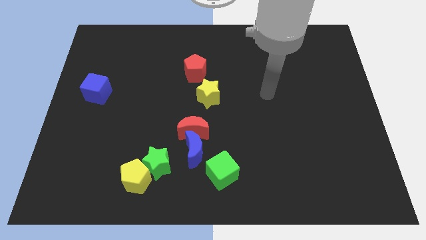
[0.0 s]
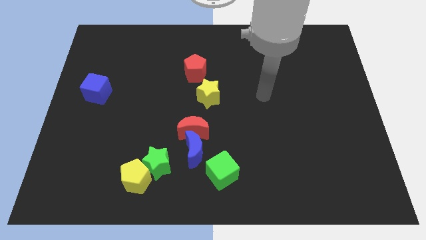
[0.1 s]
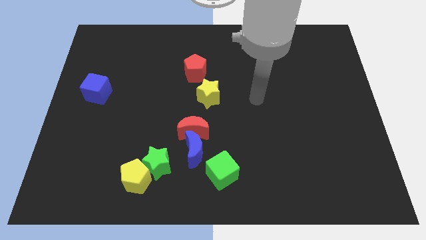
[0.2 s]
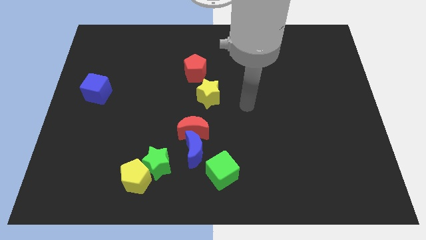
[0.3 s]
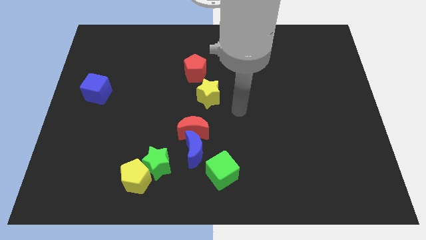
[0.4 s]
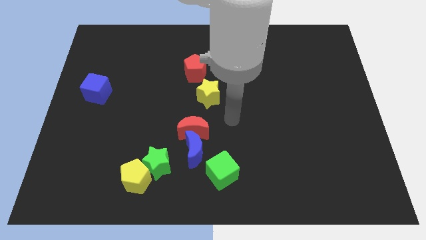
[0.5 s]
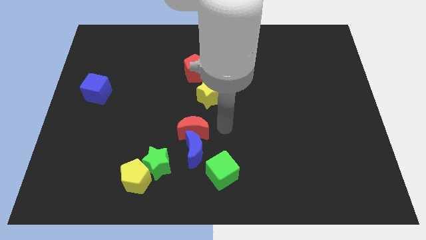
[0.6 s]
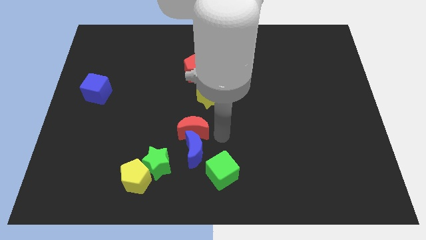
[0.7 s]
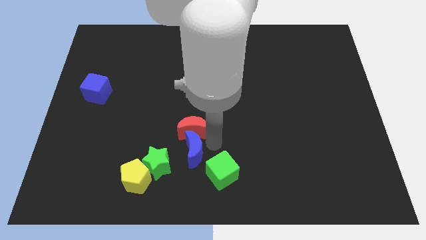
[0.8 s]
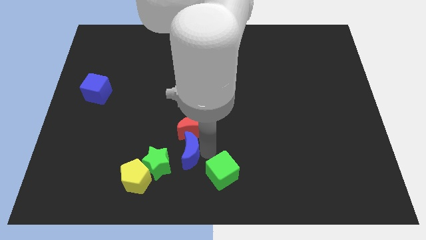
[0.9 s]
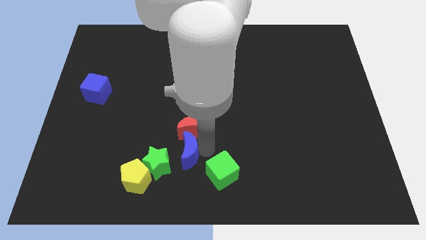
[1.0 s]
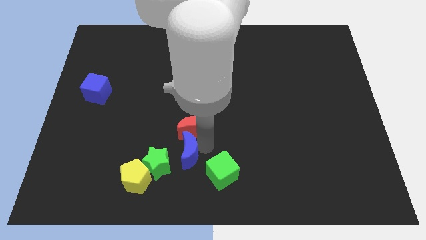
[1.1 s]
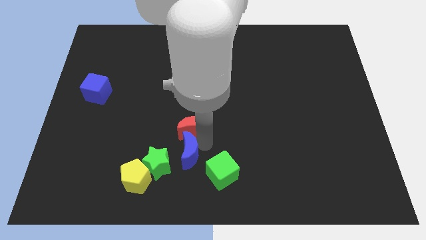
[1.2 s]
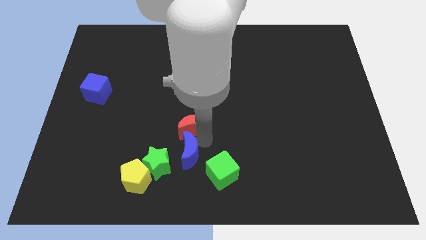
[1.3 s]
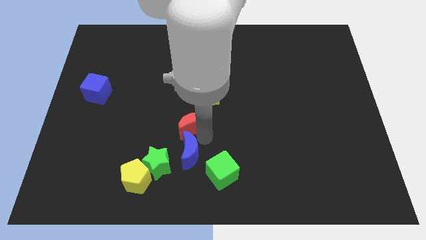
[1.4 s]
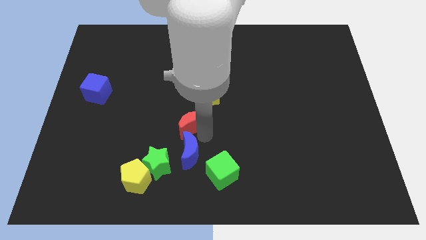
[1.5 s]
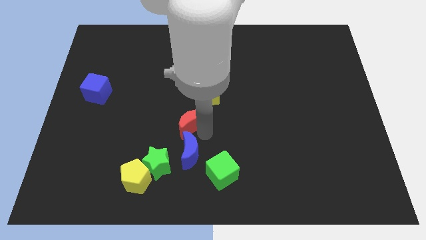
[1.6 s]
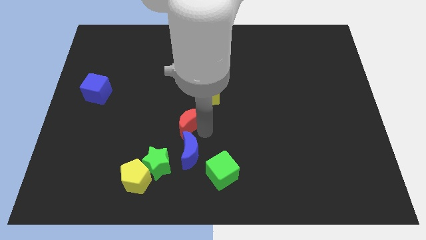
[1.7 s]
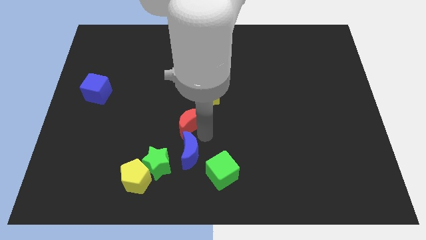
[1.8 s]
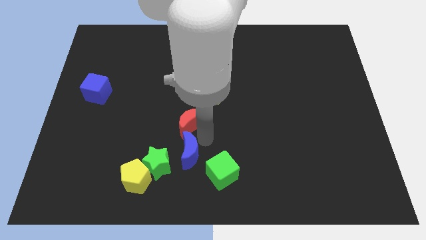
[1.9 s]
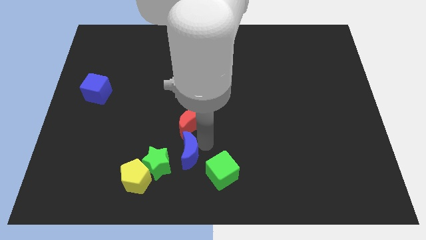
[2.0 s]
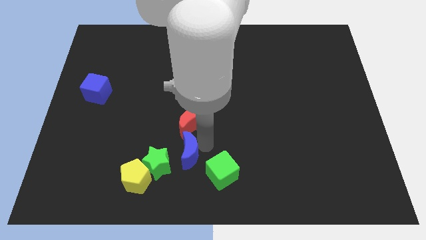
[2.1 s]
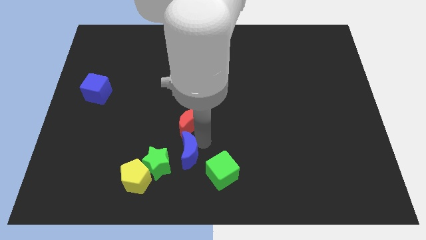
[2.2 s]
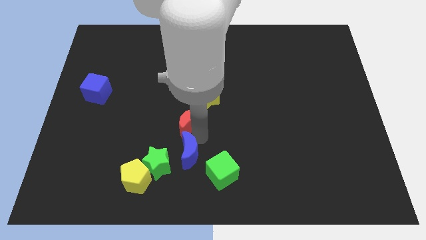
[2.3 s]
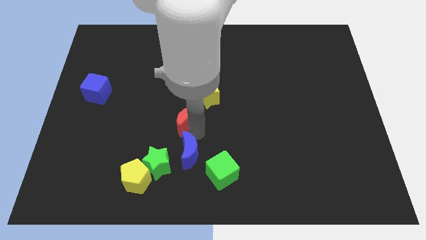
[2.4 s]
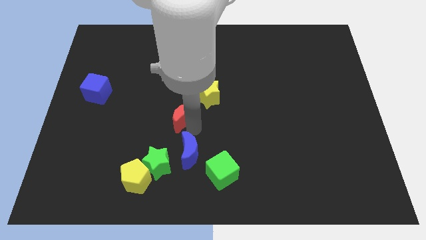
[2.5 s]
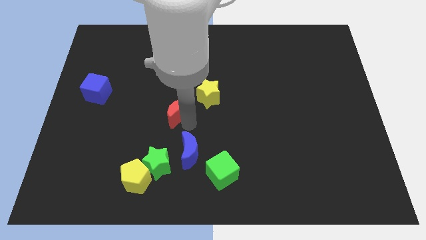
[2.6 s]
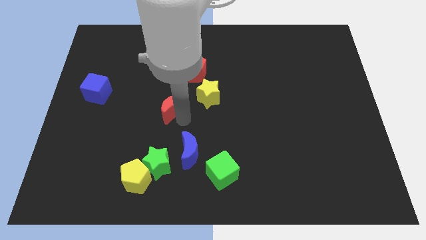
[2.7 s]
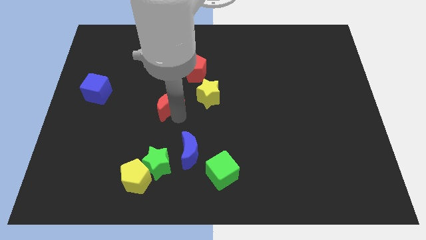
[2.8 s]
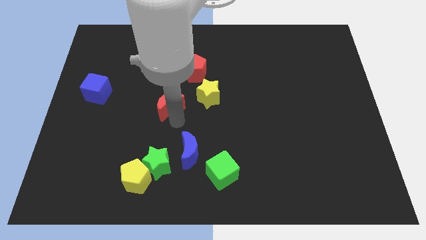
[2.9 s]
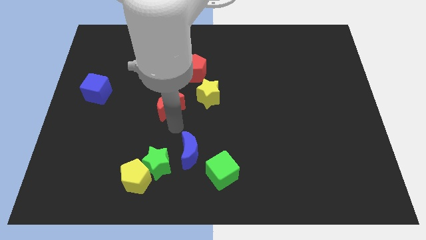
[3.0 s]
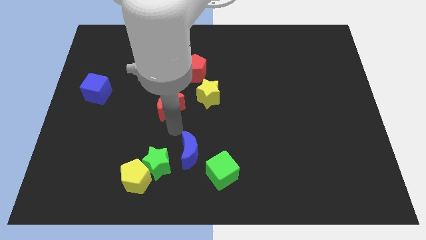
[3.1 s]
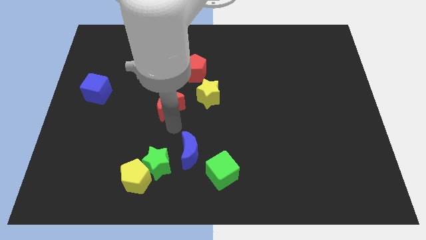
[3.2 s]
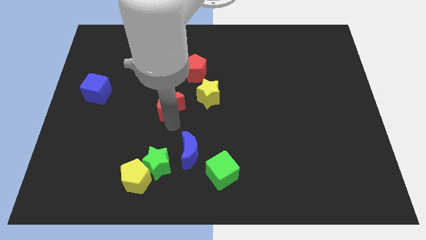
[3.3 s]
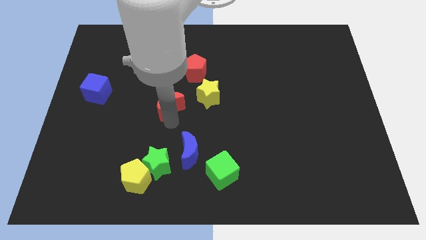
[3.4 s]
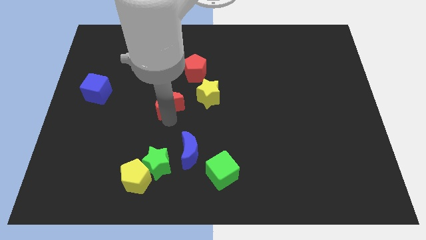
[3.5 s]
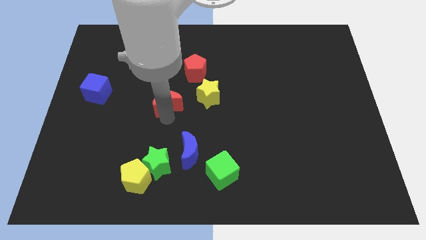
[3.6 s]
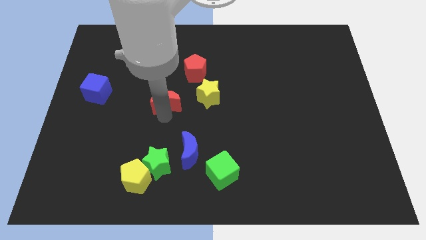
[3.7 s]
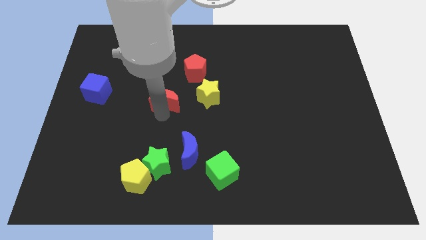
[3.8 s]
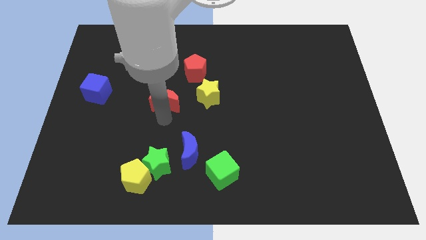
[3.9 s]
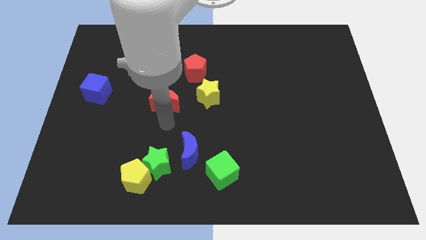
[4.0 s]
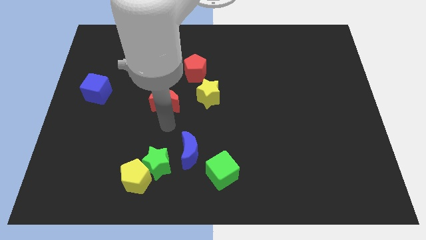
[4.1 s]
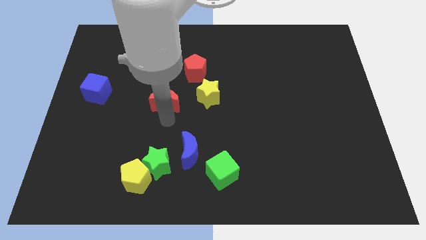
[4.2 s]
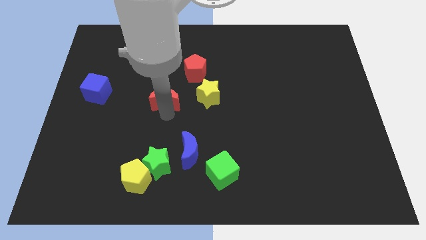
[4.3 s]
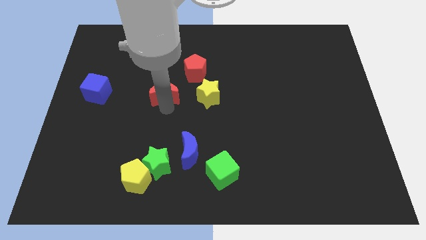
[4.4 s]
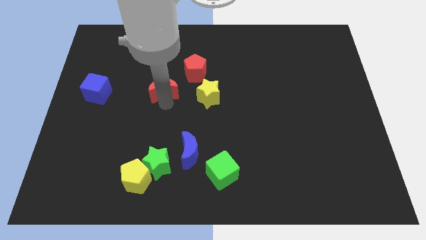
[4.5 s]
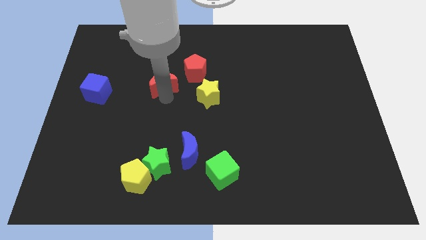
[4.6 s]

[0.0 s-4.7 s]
slide the red moon to the left of the red pentagon

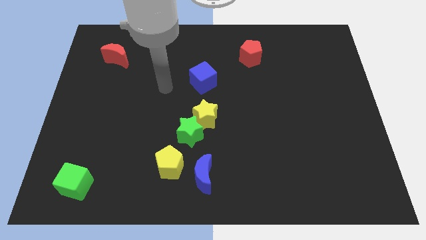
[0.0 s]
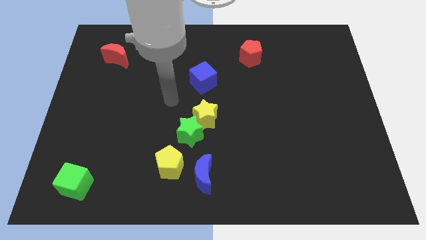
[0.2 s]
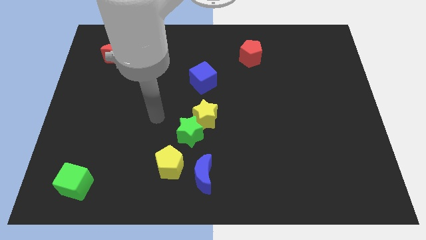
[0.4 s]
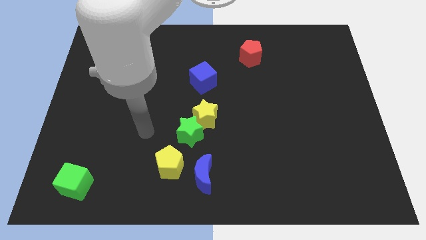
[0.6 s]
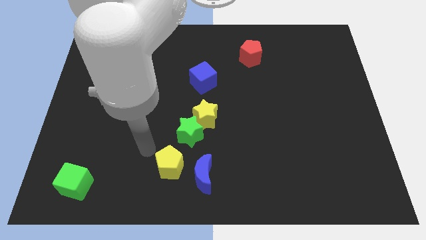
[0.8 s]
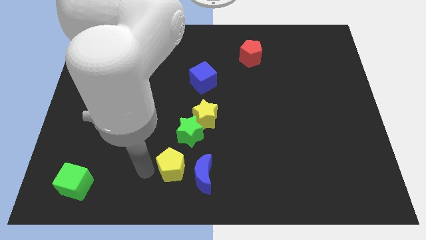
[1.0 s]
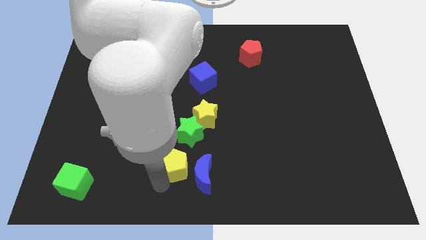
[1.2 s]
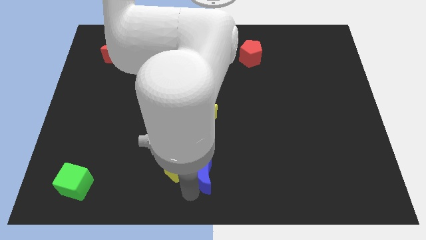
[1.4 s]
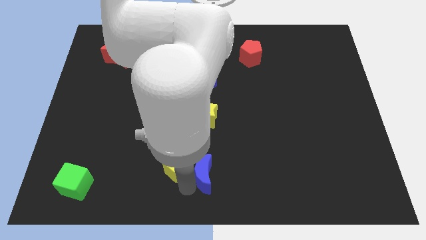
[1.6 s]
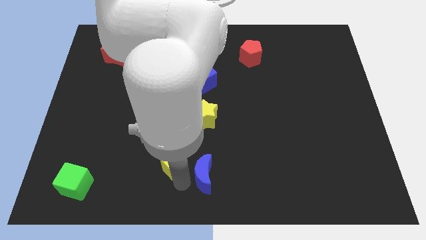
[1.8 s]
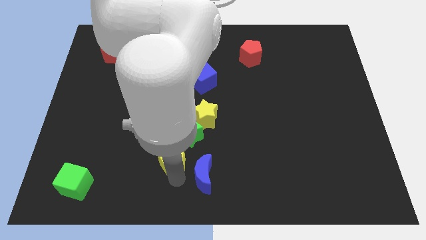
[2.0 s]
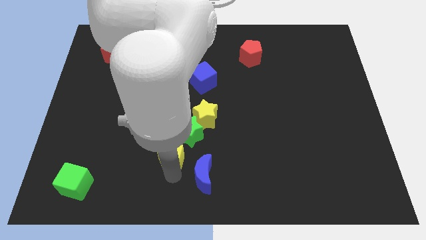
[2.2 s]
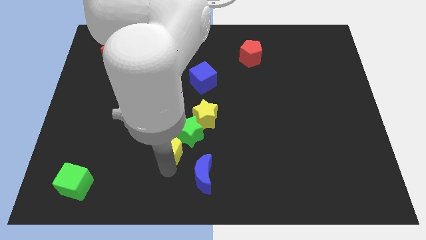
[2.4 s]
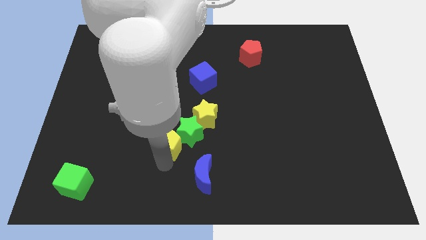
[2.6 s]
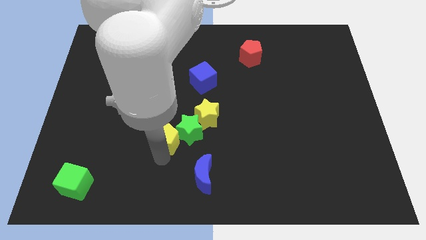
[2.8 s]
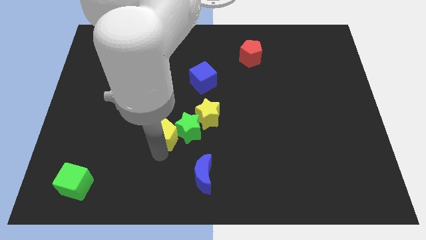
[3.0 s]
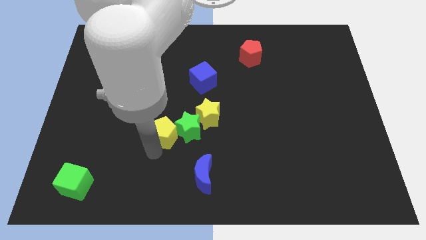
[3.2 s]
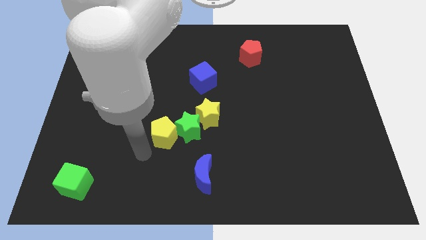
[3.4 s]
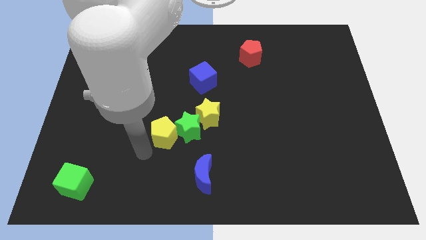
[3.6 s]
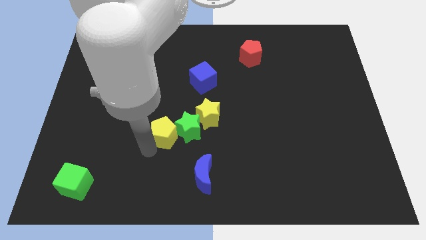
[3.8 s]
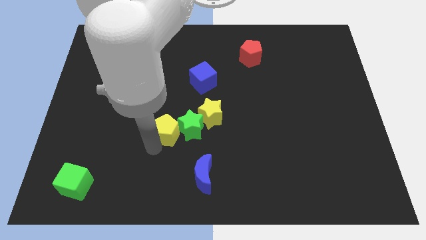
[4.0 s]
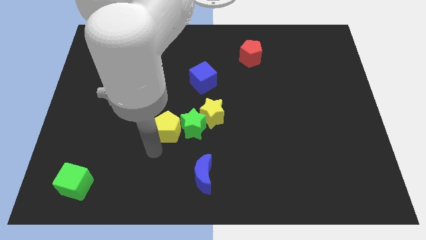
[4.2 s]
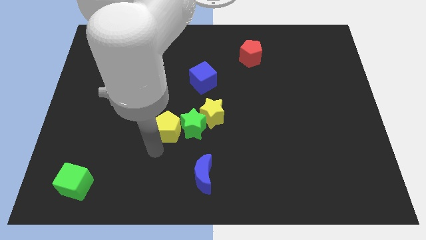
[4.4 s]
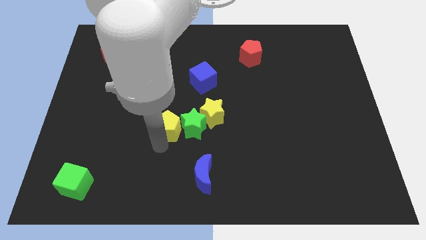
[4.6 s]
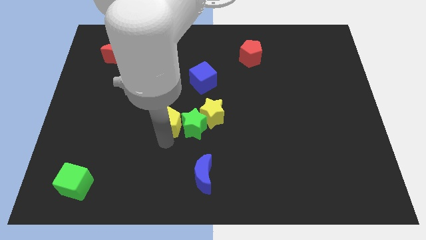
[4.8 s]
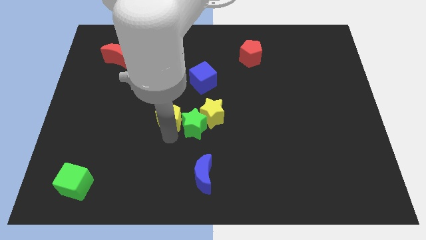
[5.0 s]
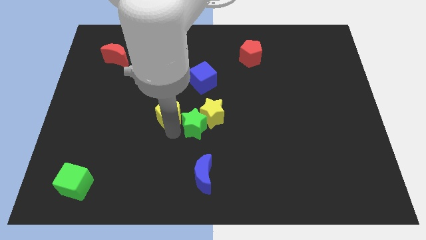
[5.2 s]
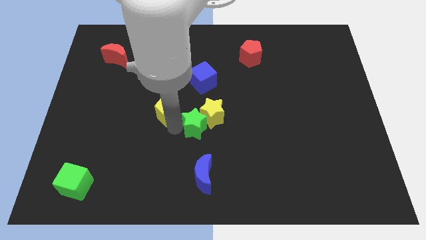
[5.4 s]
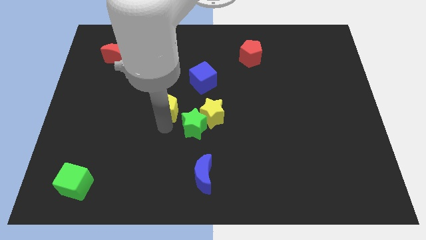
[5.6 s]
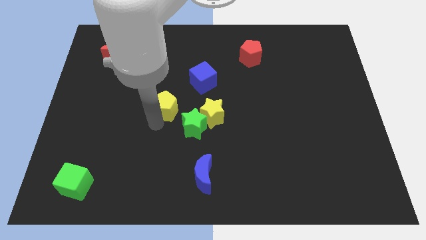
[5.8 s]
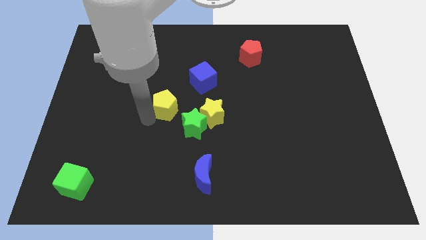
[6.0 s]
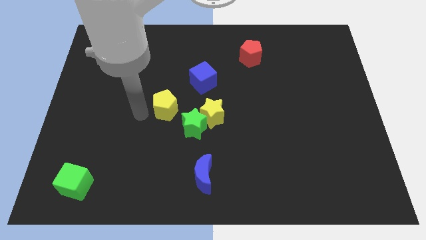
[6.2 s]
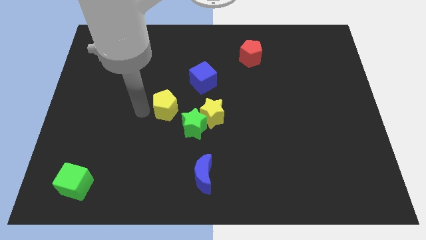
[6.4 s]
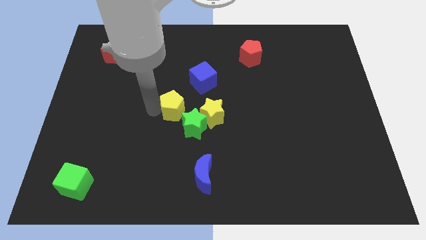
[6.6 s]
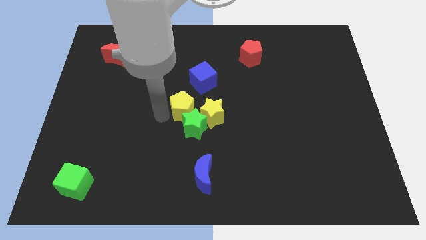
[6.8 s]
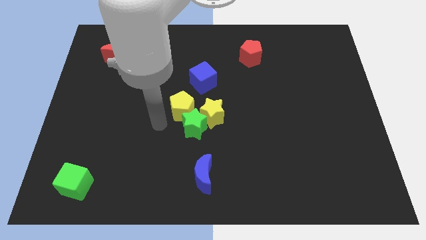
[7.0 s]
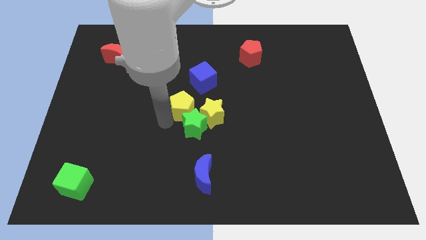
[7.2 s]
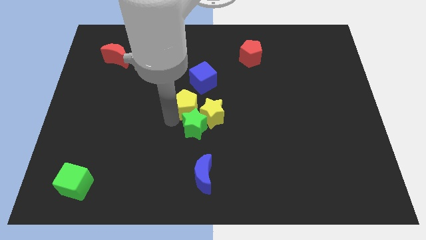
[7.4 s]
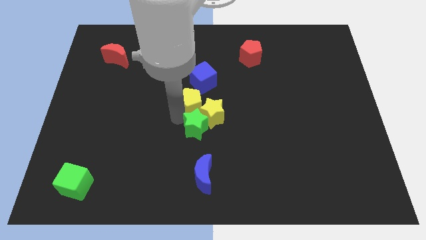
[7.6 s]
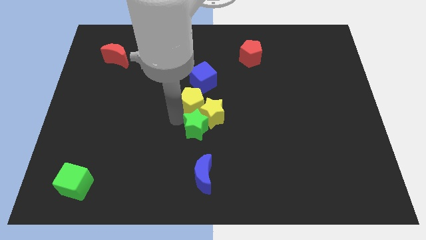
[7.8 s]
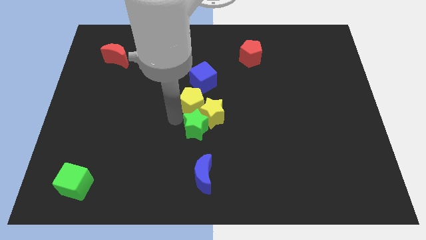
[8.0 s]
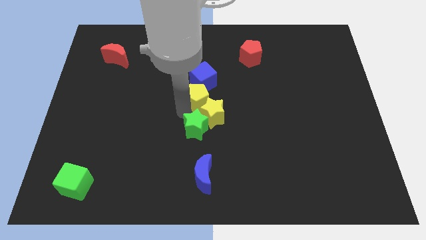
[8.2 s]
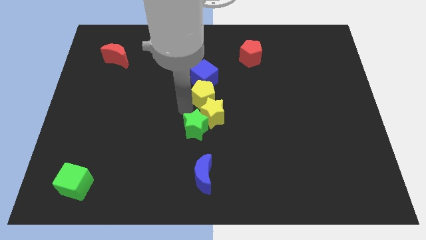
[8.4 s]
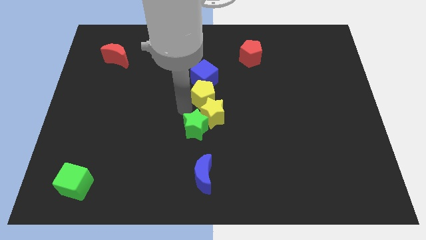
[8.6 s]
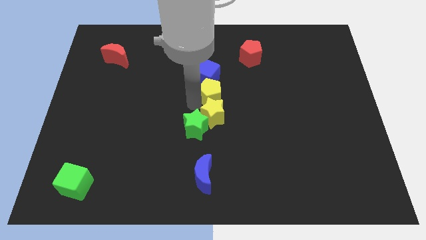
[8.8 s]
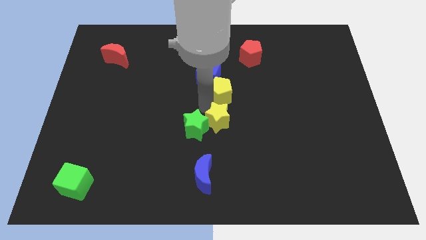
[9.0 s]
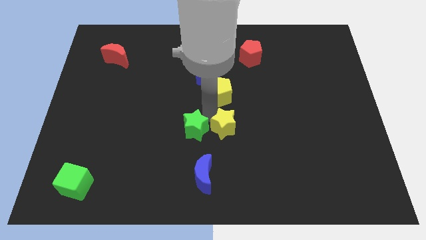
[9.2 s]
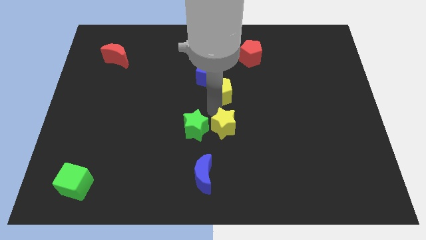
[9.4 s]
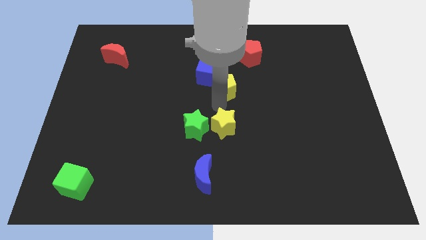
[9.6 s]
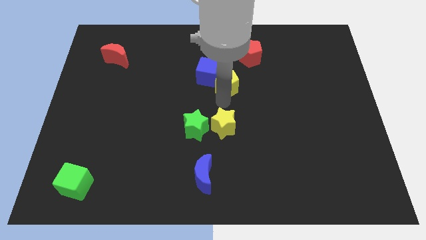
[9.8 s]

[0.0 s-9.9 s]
slide the yellow pentagon to the bottom left side of the red pentagon
